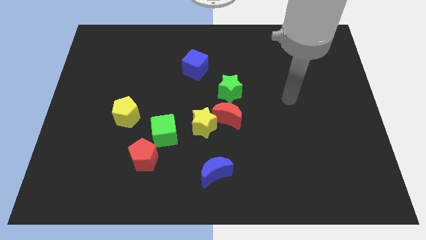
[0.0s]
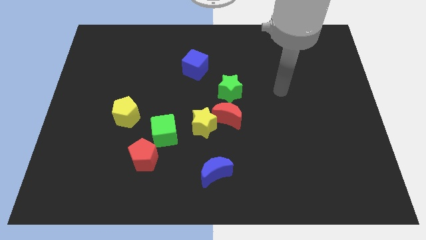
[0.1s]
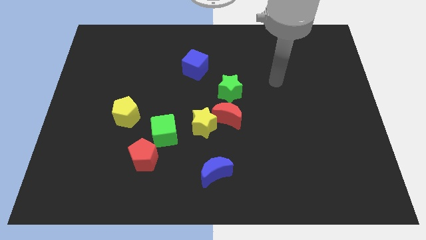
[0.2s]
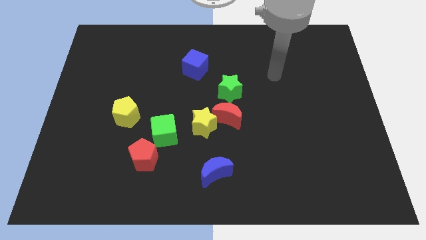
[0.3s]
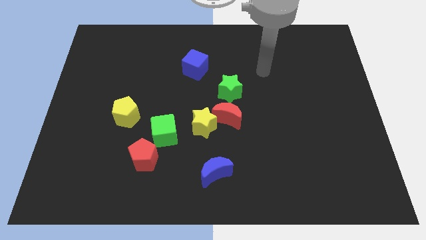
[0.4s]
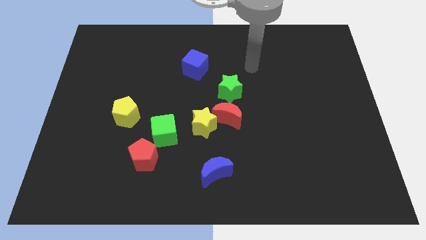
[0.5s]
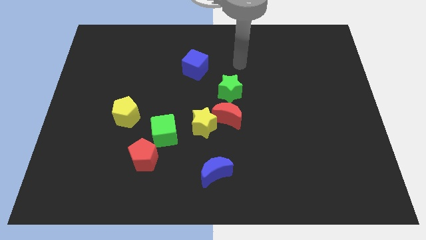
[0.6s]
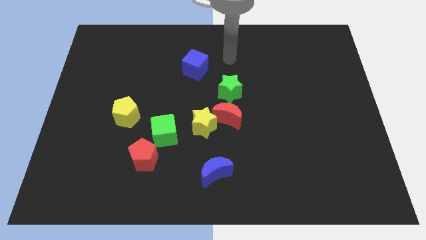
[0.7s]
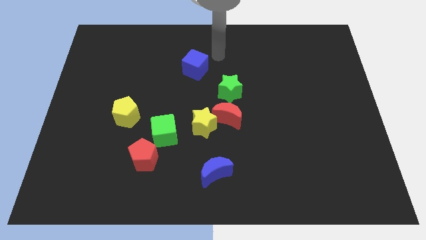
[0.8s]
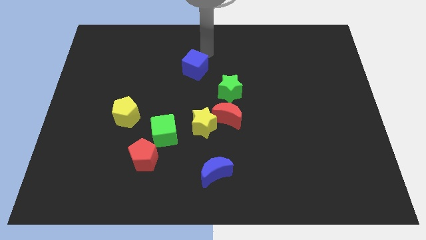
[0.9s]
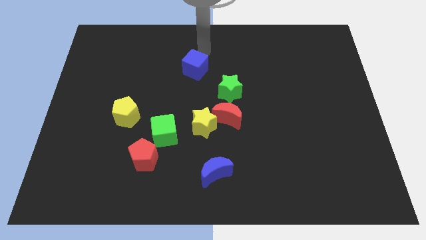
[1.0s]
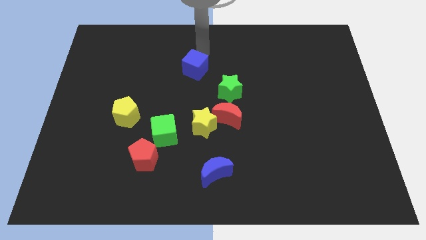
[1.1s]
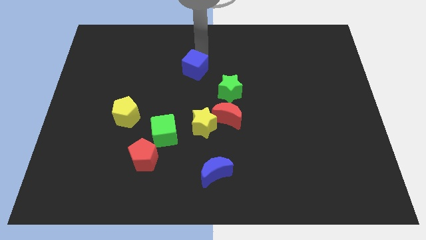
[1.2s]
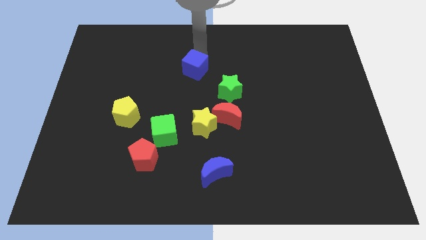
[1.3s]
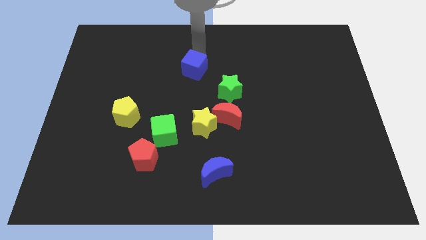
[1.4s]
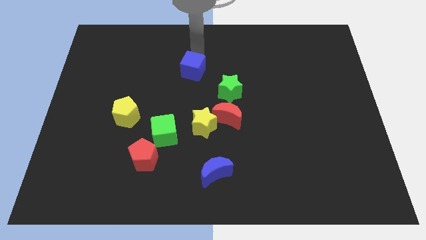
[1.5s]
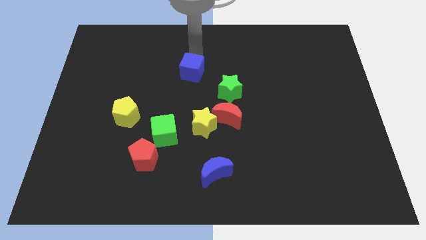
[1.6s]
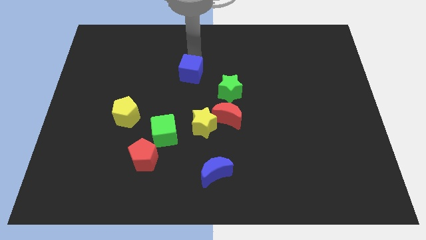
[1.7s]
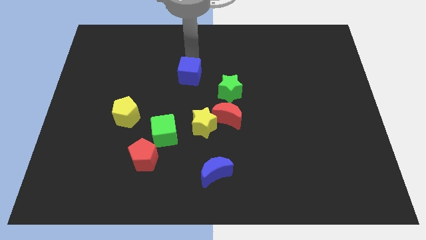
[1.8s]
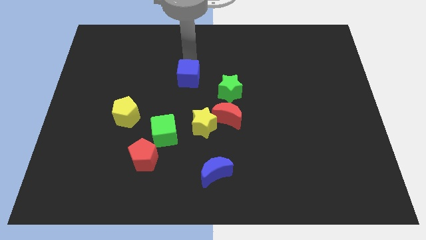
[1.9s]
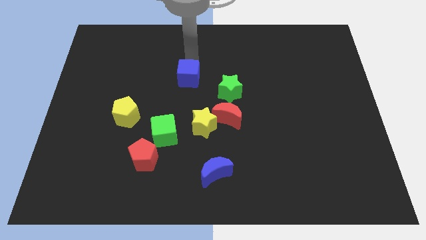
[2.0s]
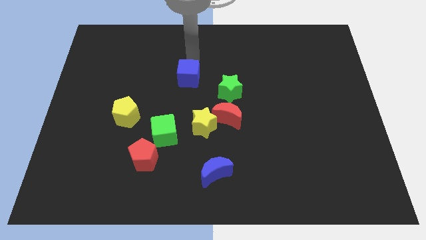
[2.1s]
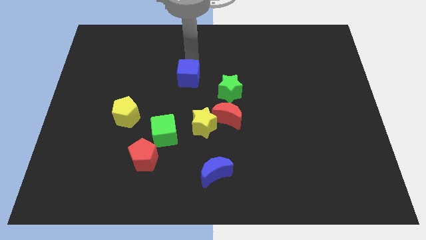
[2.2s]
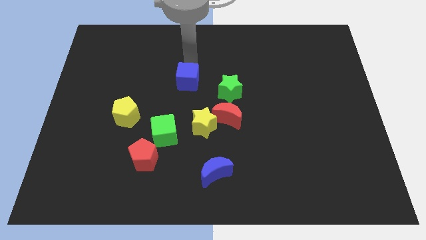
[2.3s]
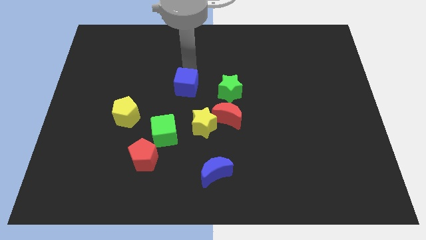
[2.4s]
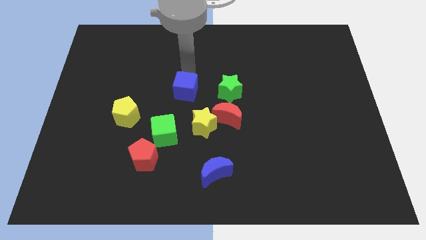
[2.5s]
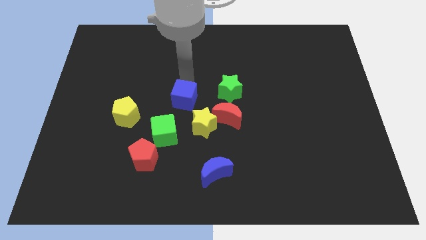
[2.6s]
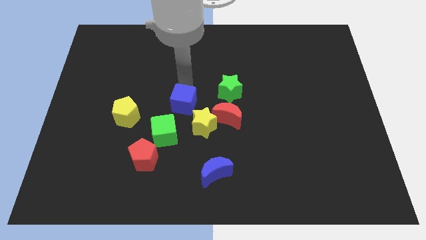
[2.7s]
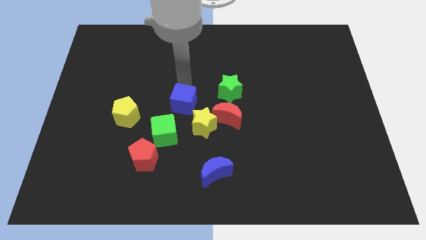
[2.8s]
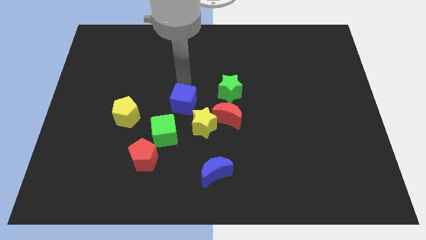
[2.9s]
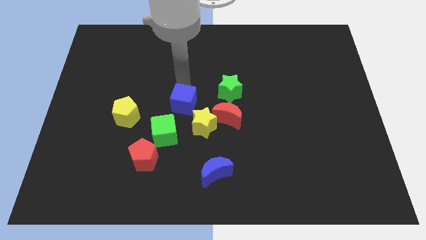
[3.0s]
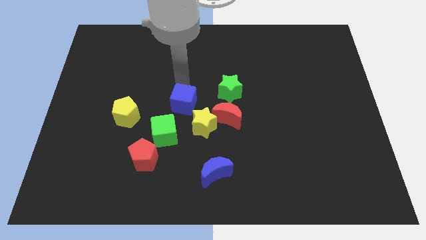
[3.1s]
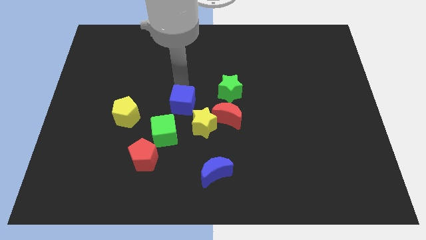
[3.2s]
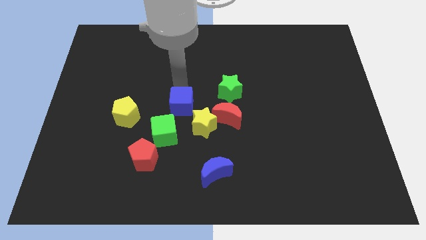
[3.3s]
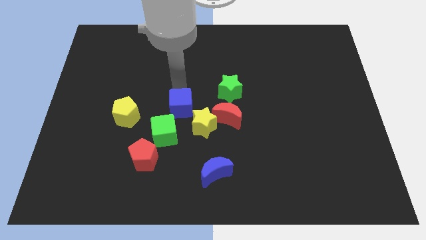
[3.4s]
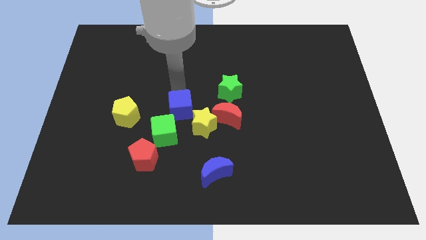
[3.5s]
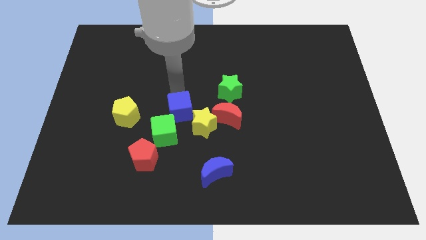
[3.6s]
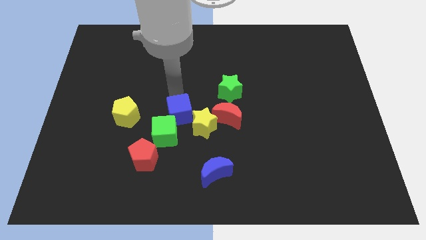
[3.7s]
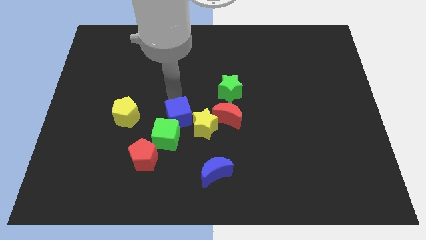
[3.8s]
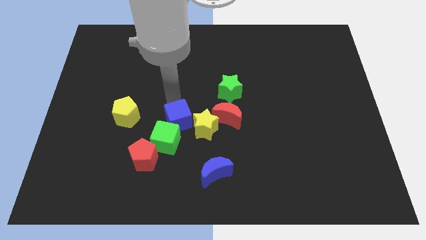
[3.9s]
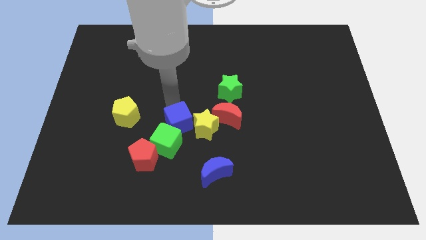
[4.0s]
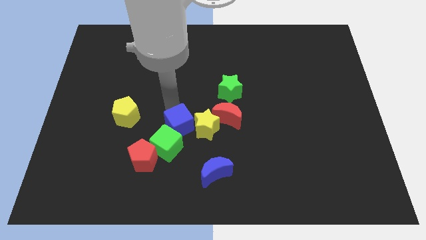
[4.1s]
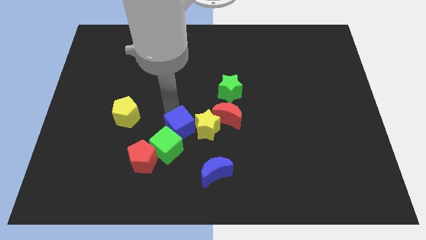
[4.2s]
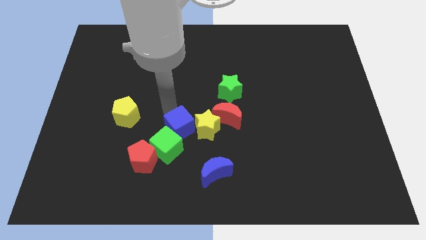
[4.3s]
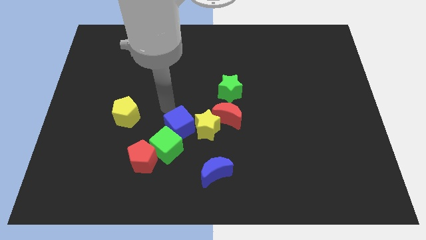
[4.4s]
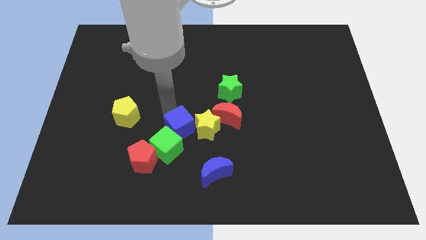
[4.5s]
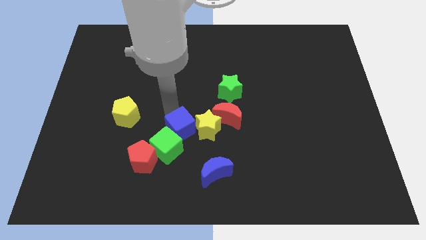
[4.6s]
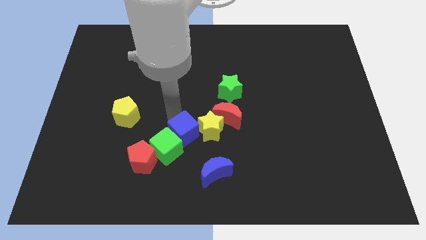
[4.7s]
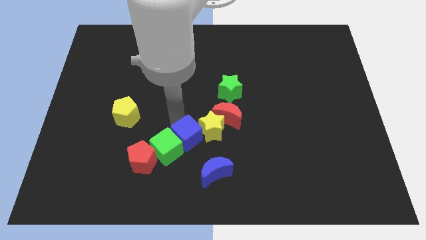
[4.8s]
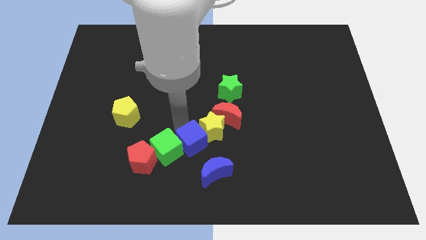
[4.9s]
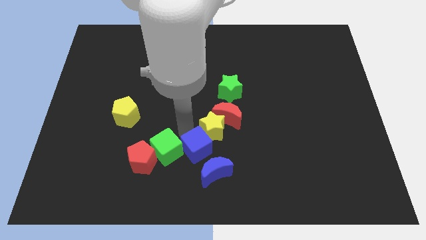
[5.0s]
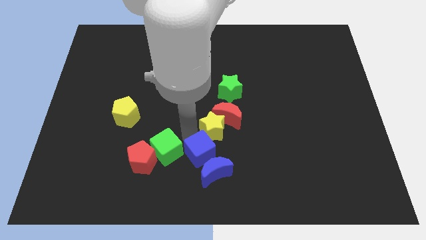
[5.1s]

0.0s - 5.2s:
put the blue cube next to the blue moon

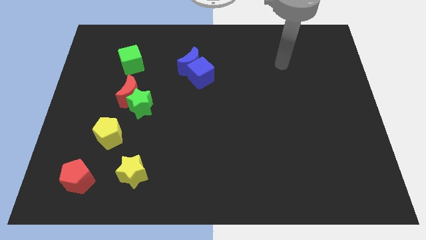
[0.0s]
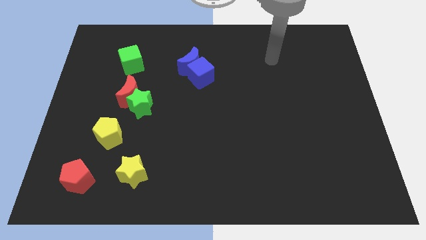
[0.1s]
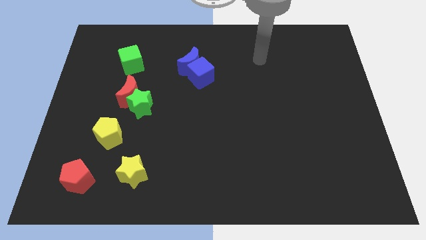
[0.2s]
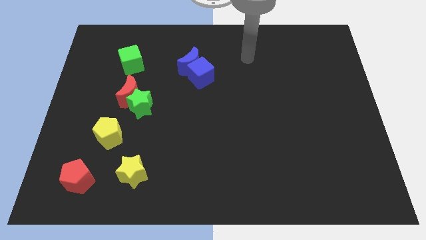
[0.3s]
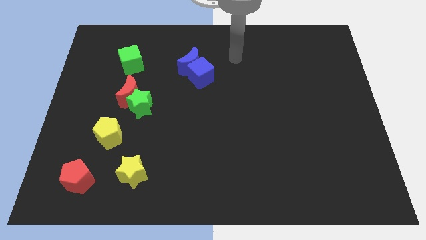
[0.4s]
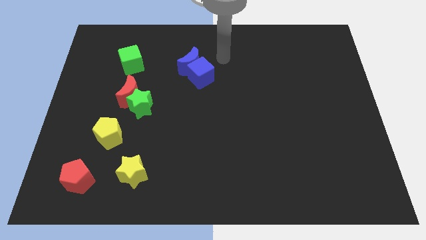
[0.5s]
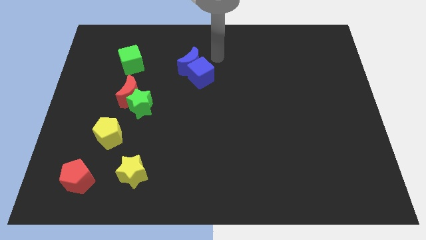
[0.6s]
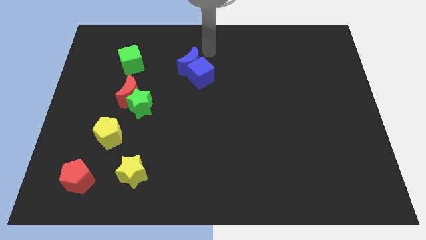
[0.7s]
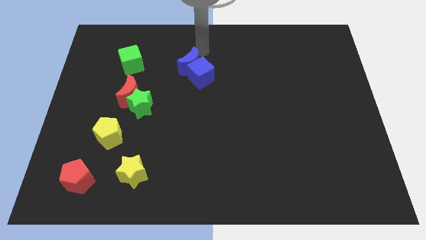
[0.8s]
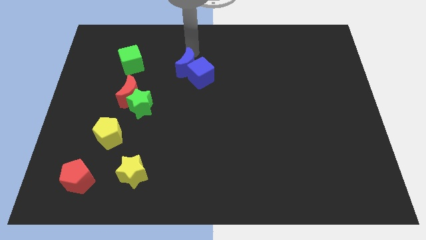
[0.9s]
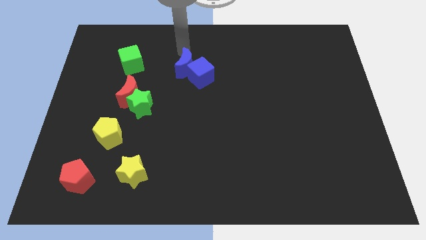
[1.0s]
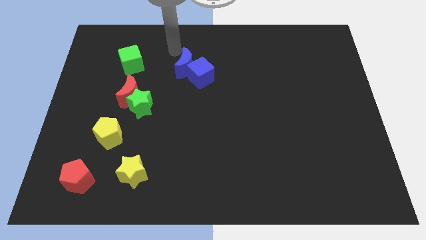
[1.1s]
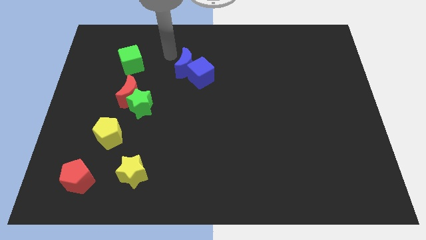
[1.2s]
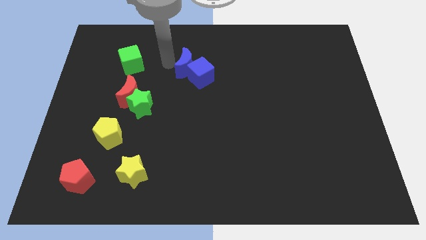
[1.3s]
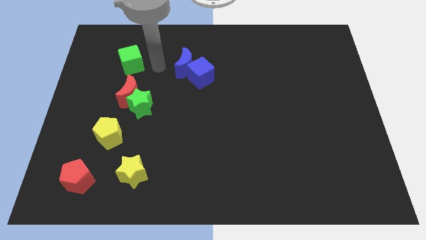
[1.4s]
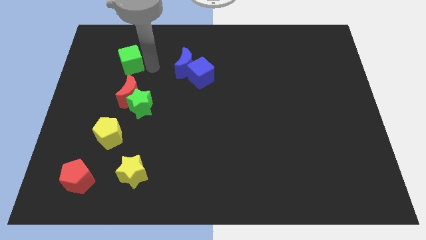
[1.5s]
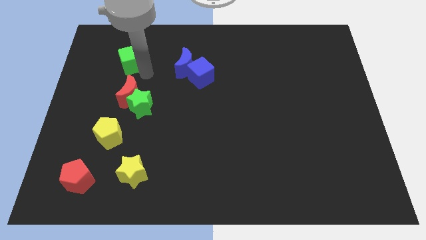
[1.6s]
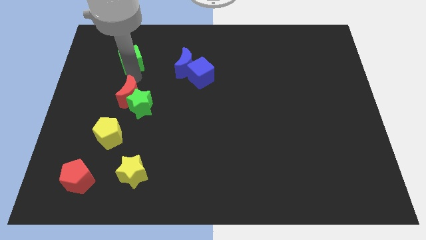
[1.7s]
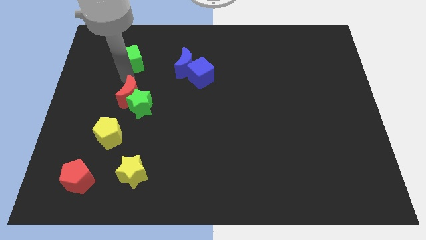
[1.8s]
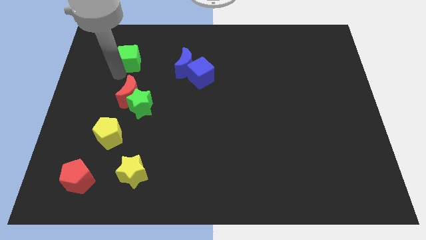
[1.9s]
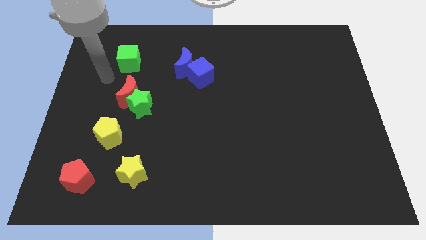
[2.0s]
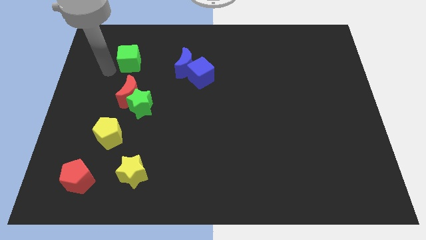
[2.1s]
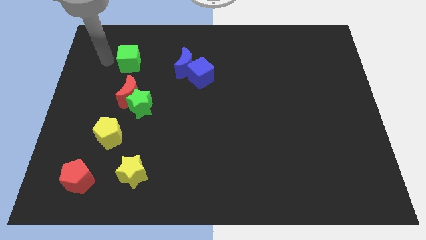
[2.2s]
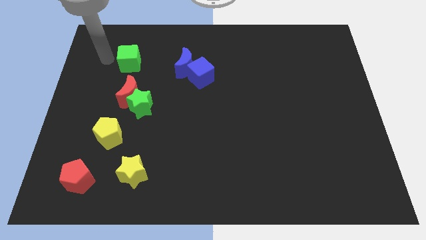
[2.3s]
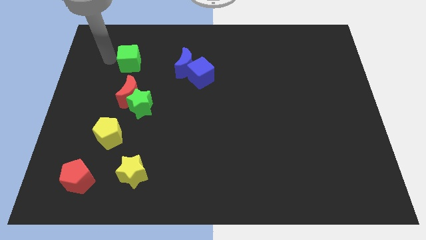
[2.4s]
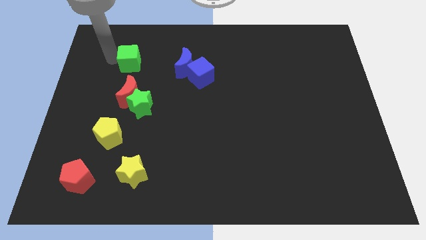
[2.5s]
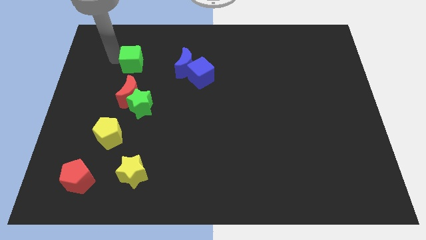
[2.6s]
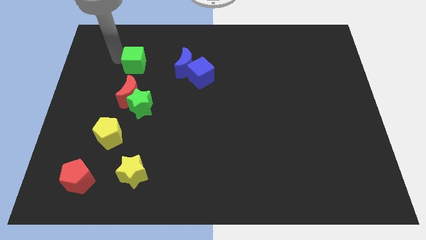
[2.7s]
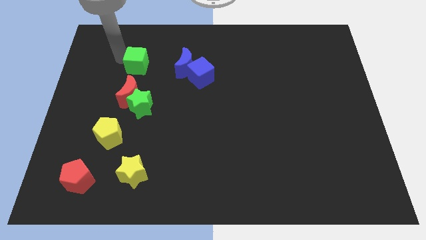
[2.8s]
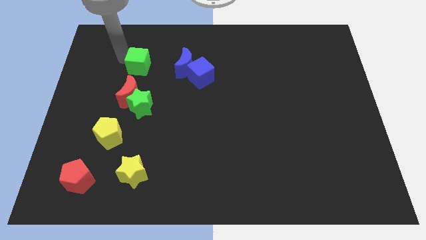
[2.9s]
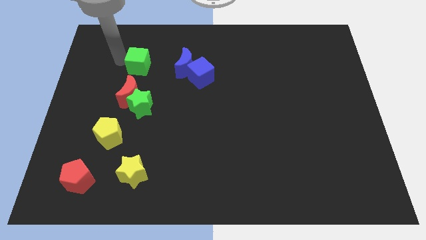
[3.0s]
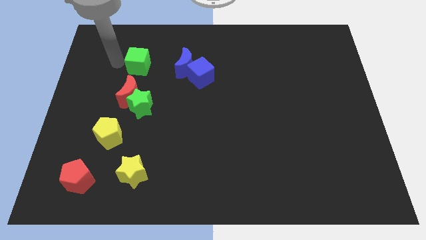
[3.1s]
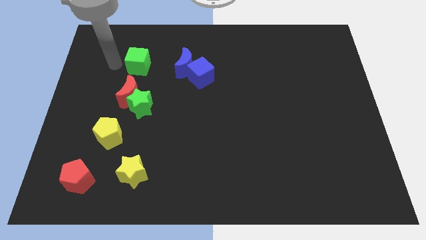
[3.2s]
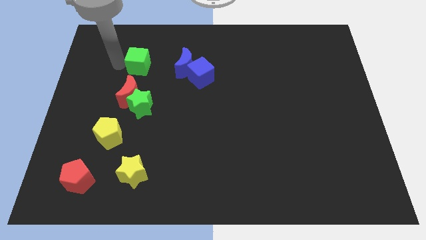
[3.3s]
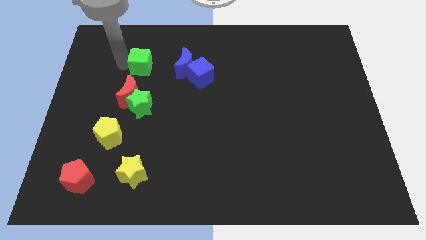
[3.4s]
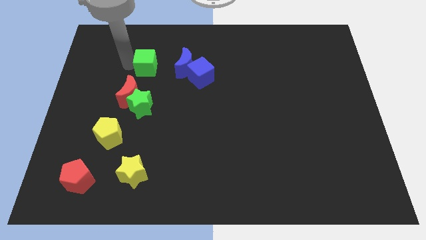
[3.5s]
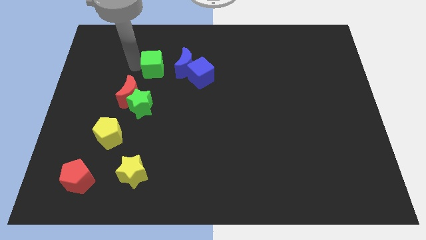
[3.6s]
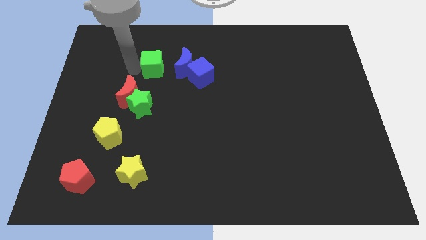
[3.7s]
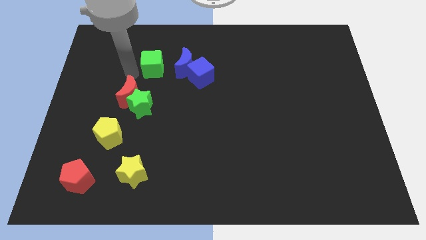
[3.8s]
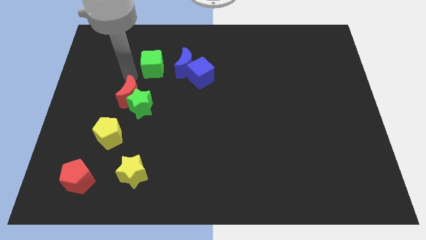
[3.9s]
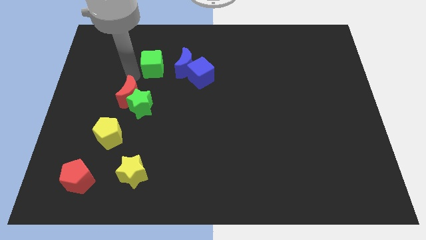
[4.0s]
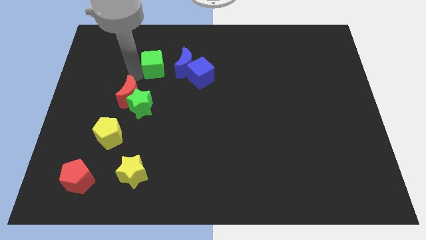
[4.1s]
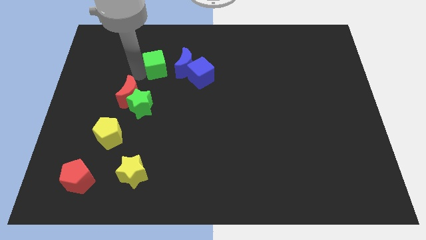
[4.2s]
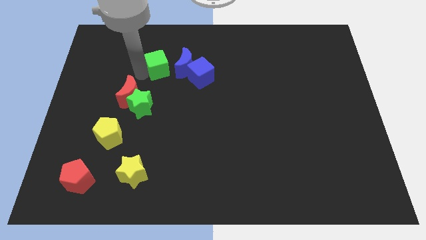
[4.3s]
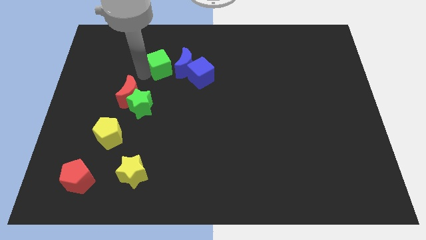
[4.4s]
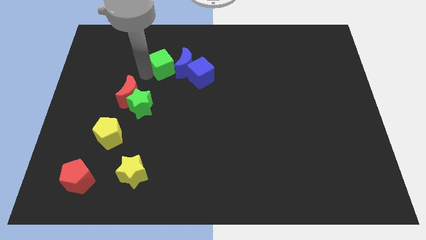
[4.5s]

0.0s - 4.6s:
put the green cube close to the blue moon
